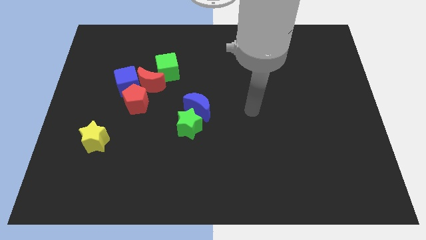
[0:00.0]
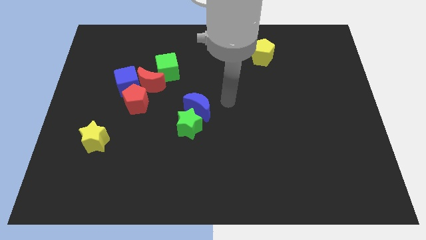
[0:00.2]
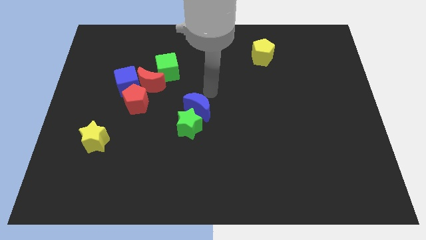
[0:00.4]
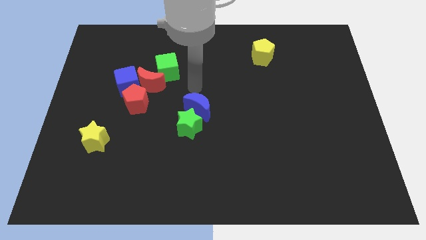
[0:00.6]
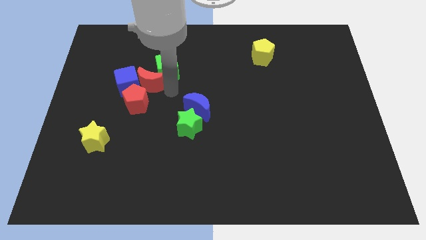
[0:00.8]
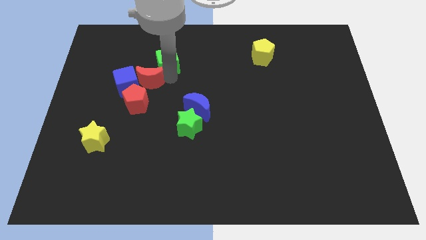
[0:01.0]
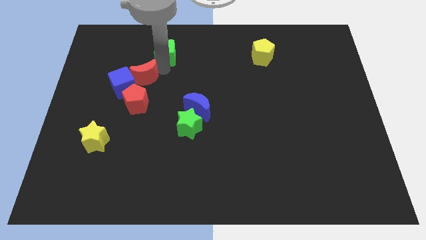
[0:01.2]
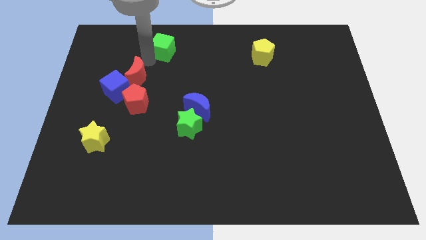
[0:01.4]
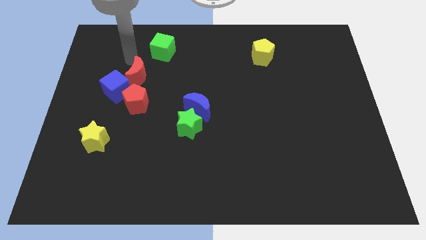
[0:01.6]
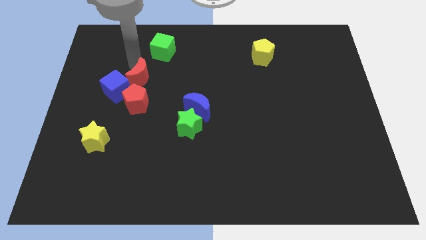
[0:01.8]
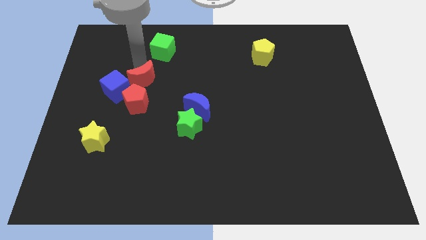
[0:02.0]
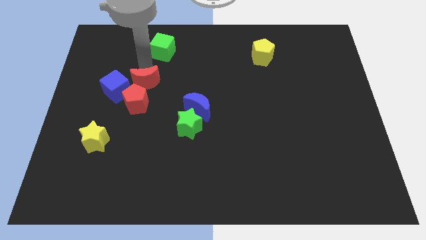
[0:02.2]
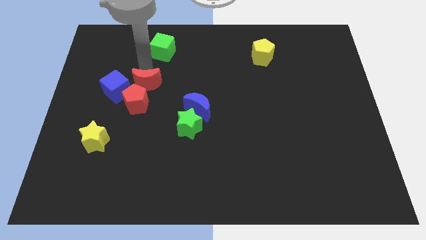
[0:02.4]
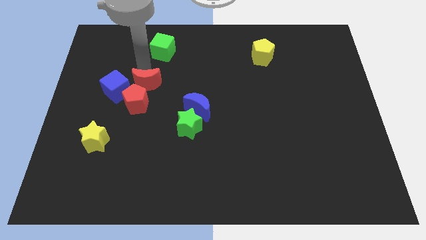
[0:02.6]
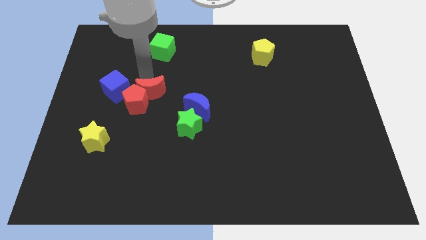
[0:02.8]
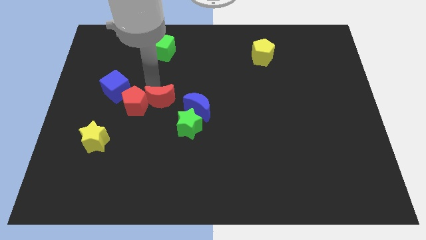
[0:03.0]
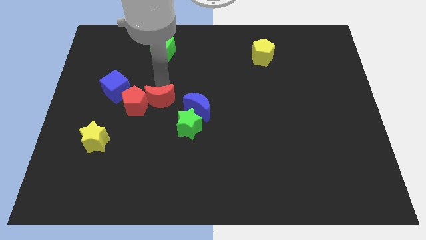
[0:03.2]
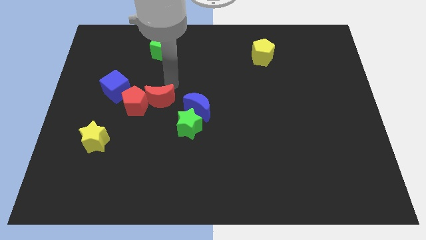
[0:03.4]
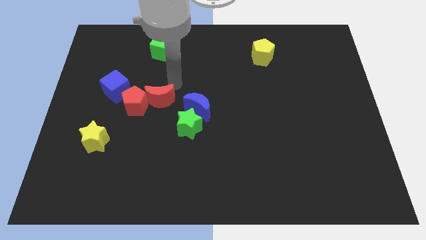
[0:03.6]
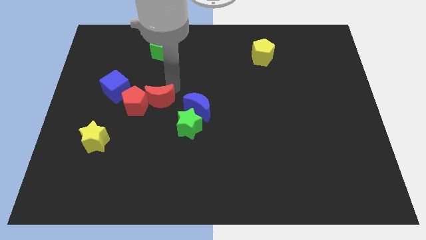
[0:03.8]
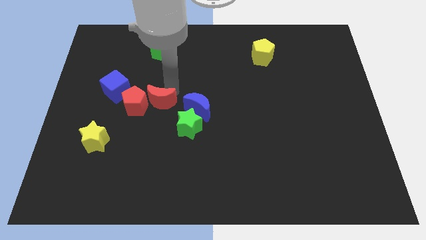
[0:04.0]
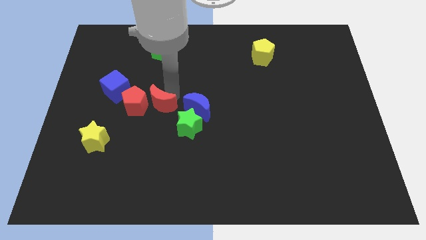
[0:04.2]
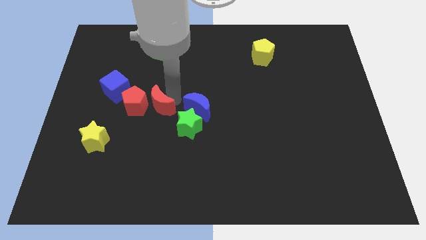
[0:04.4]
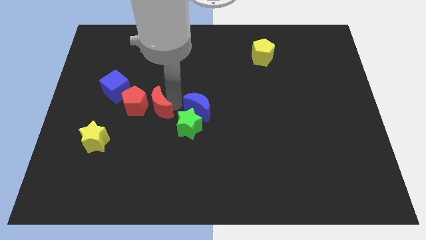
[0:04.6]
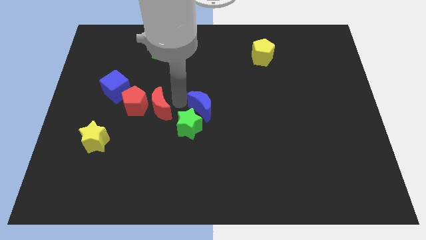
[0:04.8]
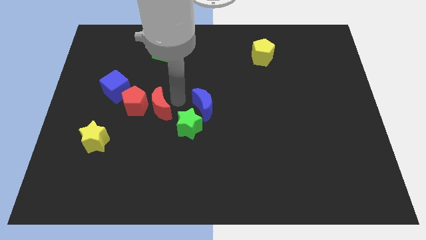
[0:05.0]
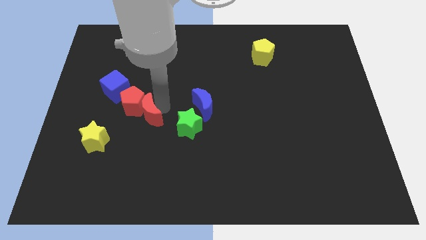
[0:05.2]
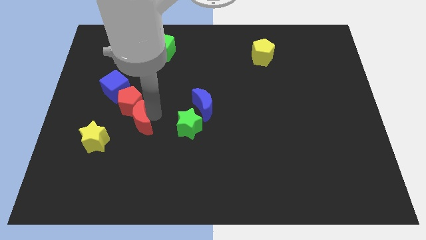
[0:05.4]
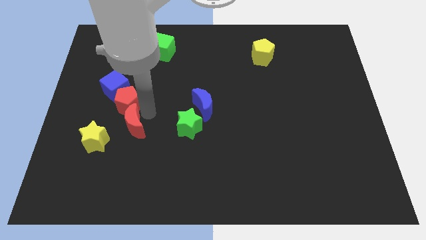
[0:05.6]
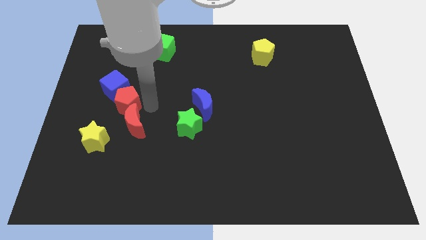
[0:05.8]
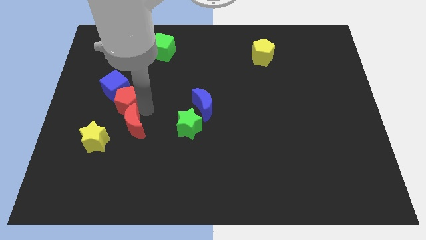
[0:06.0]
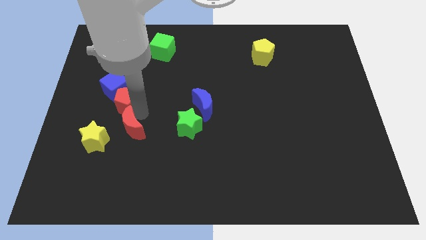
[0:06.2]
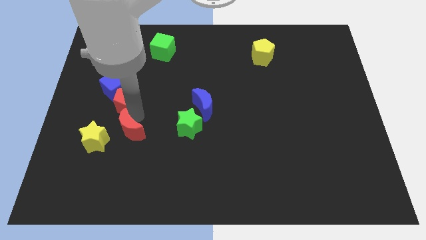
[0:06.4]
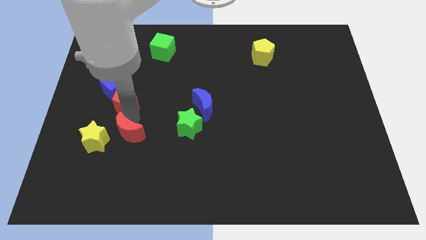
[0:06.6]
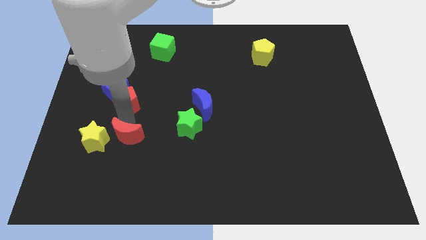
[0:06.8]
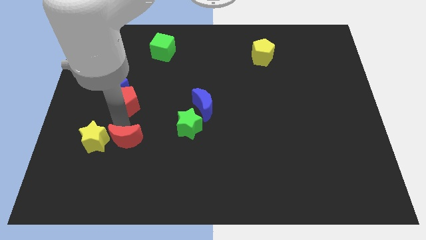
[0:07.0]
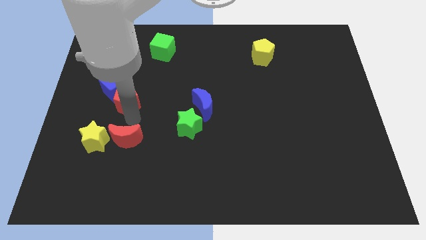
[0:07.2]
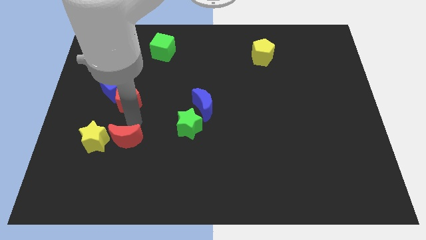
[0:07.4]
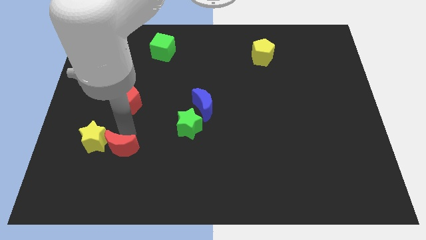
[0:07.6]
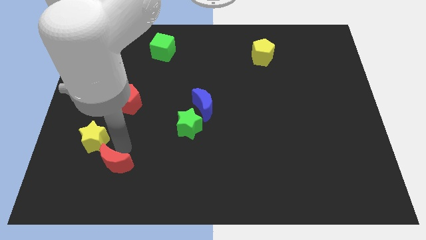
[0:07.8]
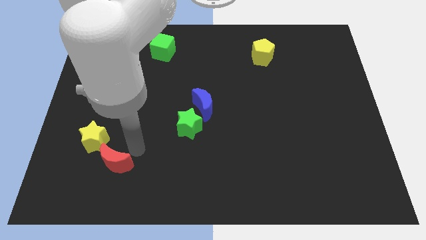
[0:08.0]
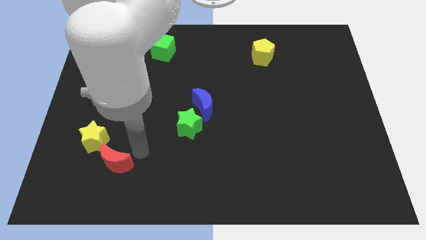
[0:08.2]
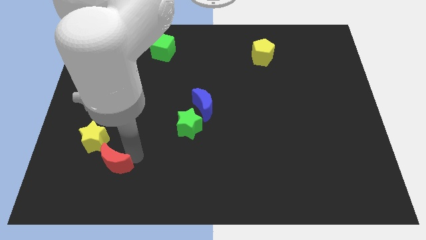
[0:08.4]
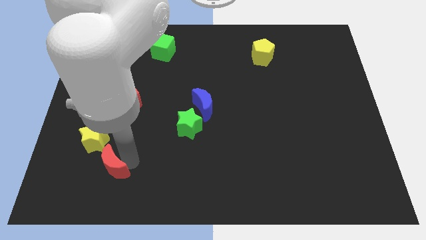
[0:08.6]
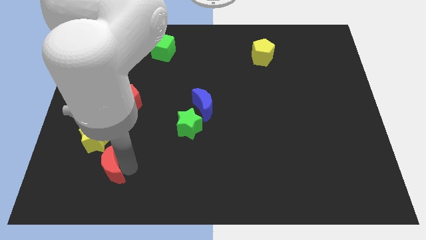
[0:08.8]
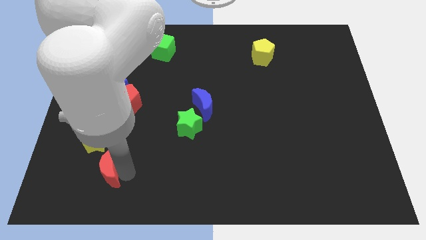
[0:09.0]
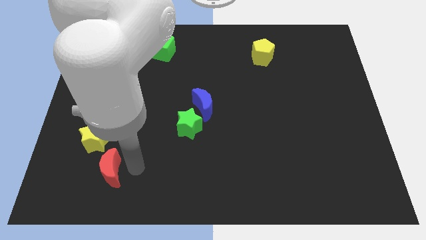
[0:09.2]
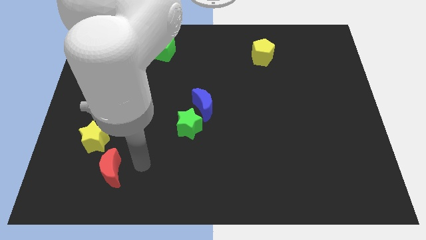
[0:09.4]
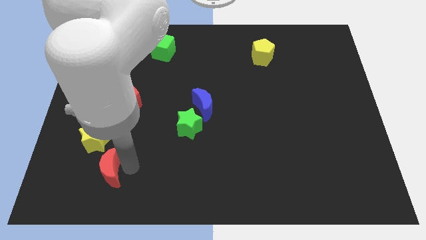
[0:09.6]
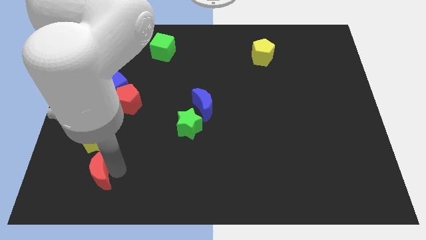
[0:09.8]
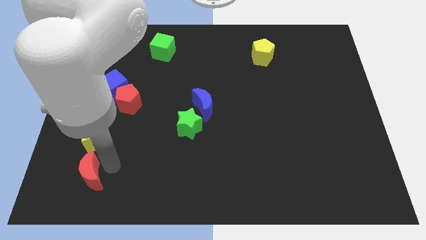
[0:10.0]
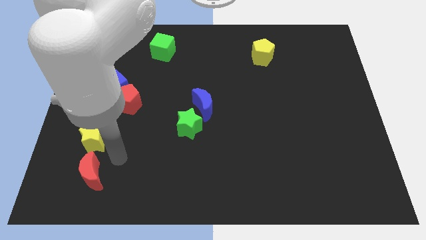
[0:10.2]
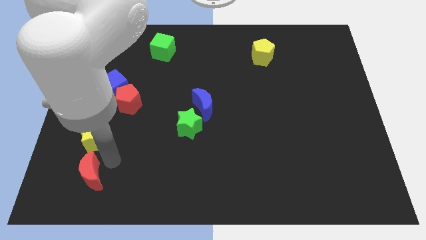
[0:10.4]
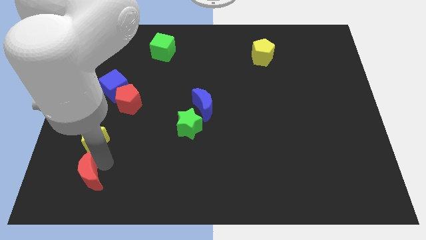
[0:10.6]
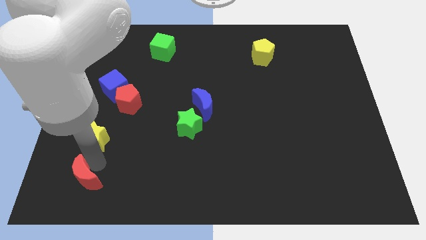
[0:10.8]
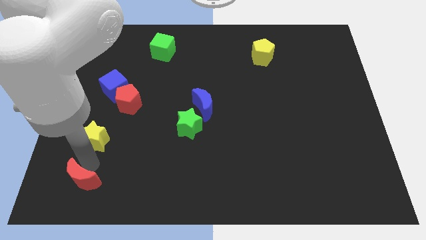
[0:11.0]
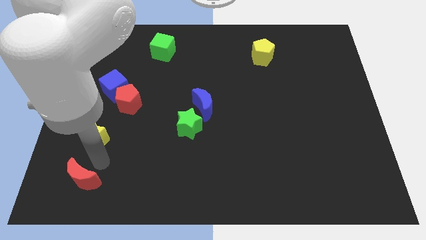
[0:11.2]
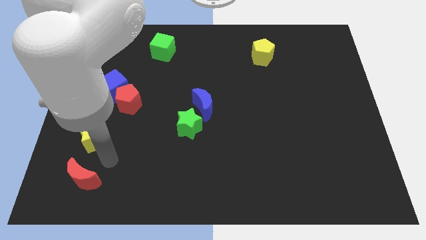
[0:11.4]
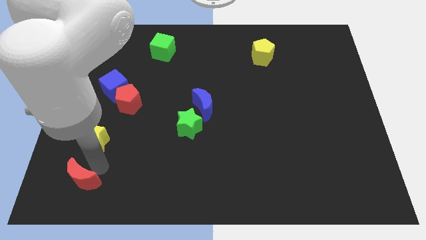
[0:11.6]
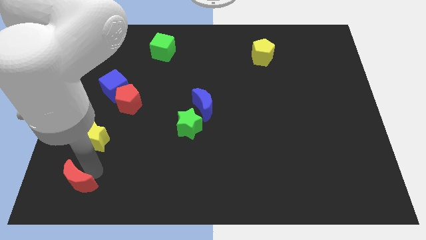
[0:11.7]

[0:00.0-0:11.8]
slide the red moon to the bottom left of the board

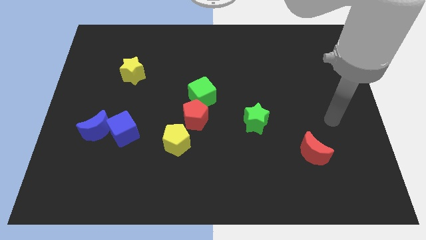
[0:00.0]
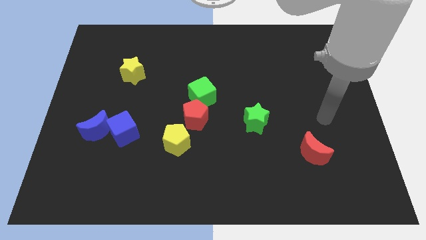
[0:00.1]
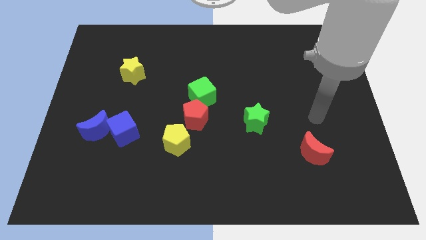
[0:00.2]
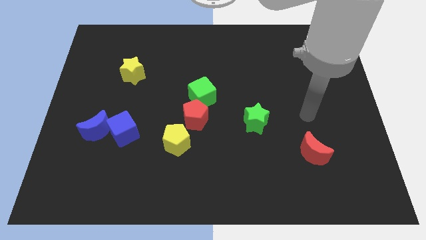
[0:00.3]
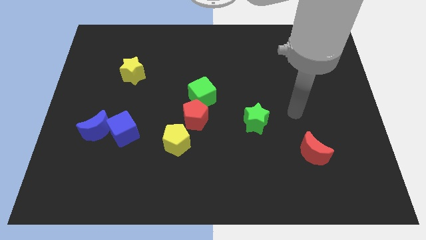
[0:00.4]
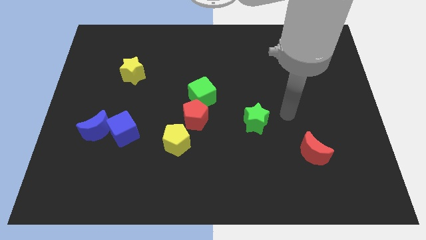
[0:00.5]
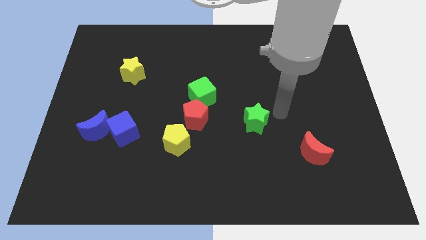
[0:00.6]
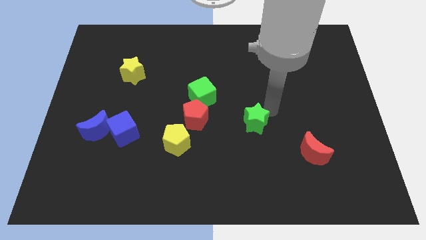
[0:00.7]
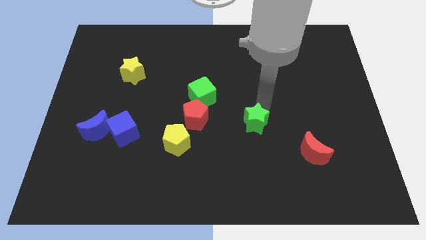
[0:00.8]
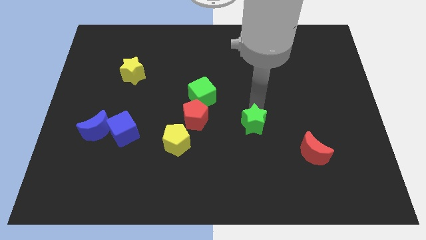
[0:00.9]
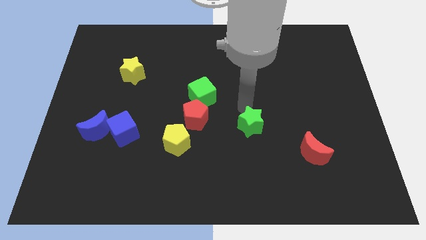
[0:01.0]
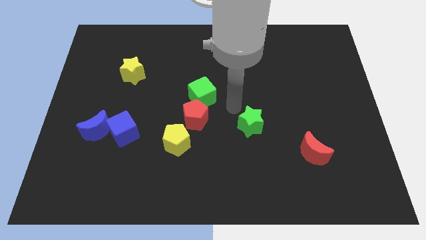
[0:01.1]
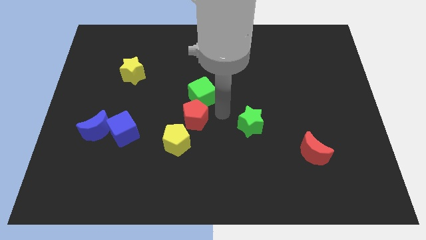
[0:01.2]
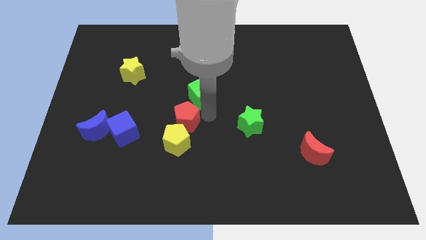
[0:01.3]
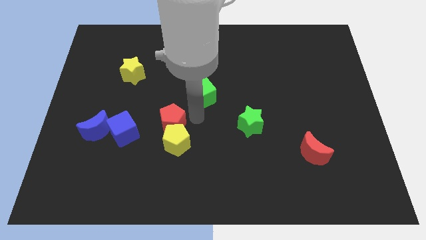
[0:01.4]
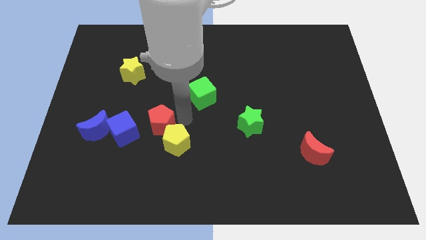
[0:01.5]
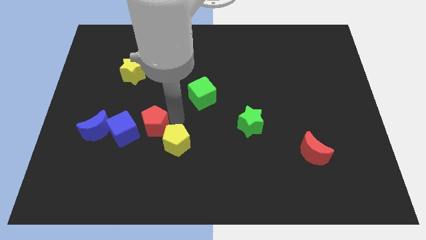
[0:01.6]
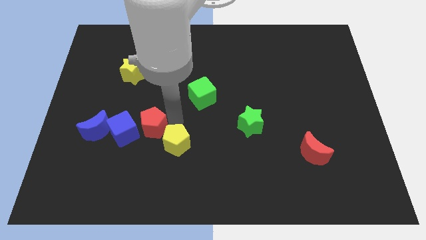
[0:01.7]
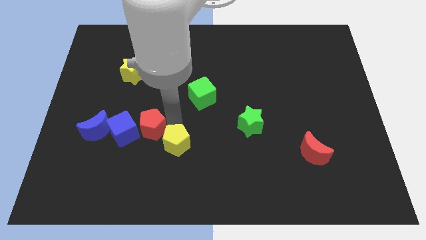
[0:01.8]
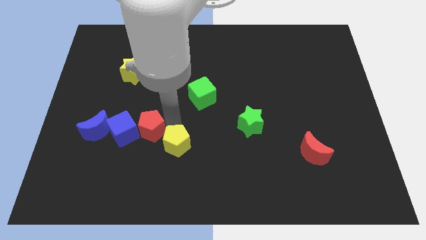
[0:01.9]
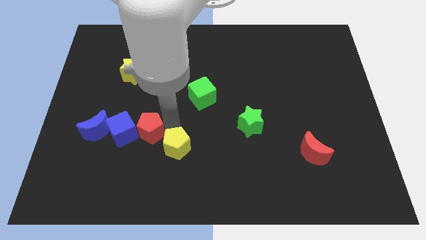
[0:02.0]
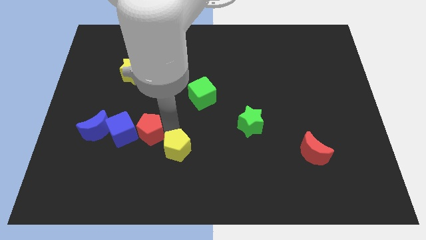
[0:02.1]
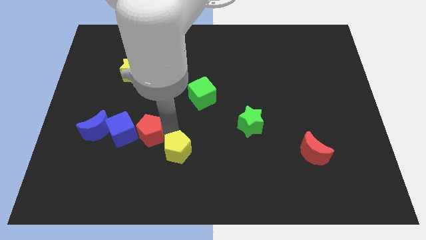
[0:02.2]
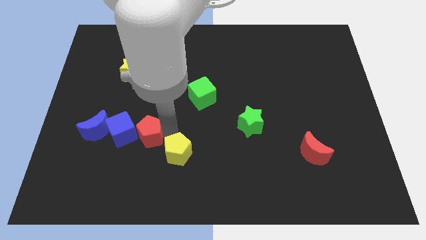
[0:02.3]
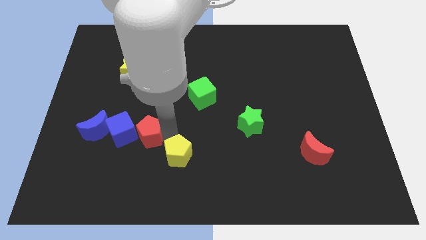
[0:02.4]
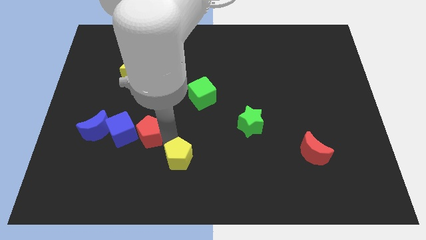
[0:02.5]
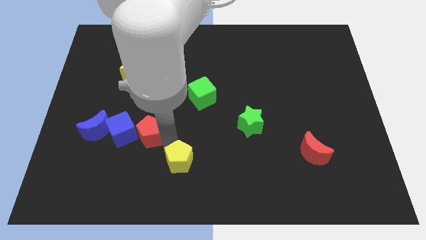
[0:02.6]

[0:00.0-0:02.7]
push the yellow pentagon to the bottom
